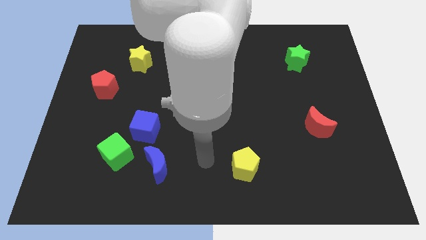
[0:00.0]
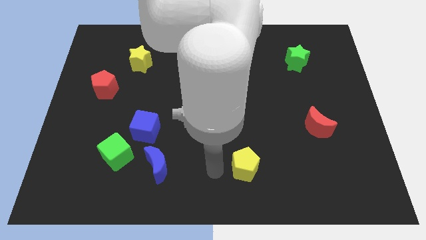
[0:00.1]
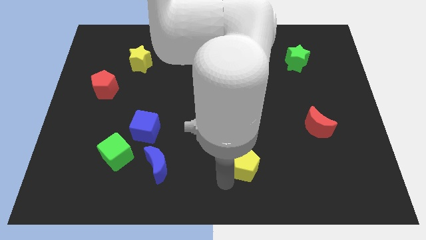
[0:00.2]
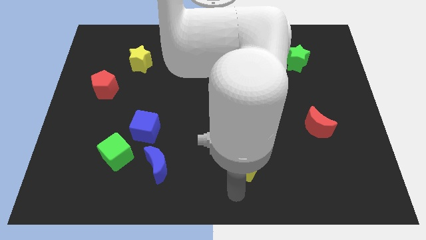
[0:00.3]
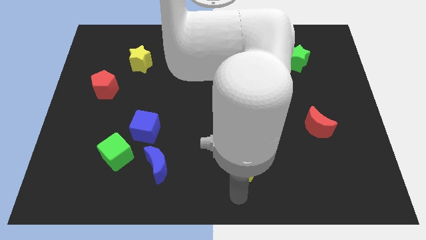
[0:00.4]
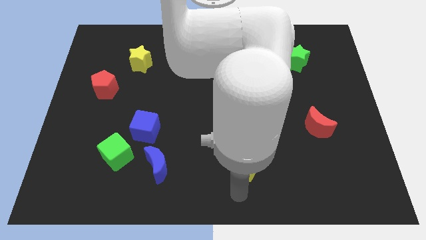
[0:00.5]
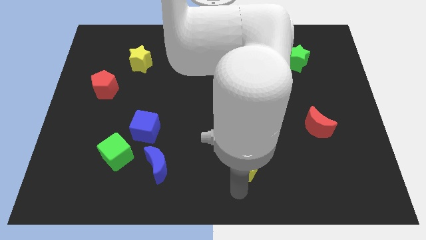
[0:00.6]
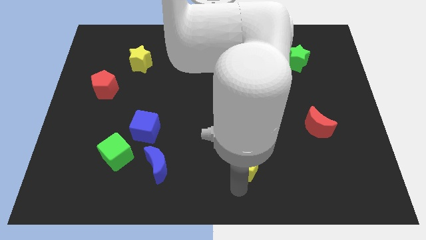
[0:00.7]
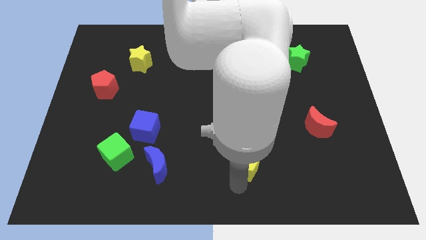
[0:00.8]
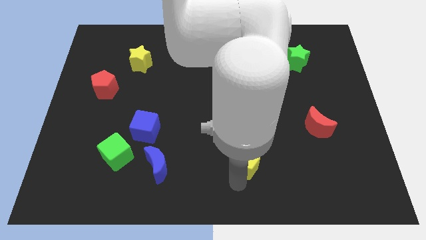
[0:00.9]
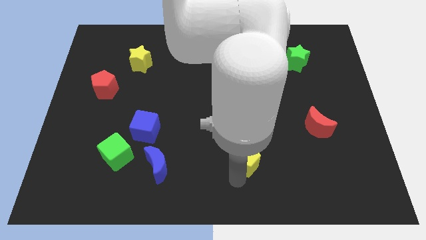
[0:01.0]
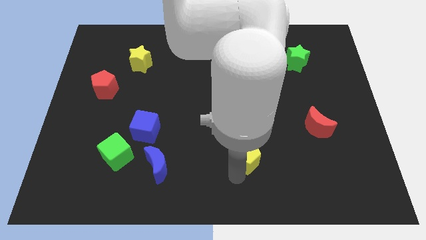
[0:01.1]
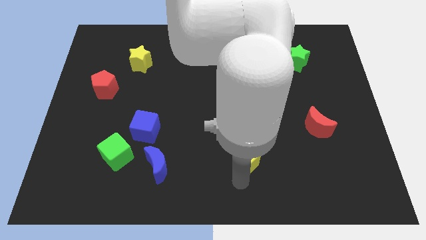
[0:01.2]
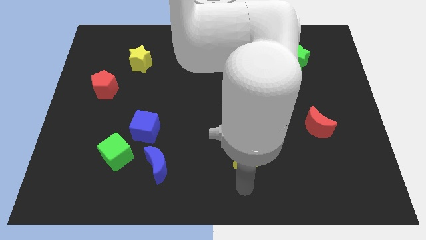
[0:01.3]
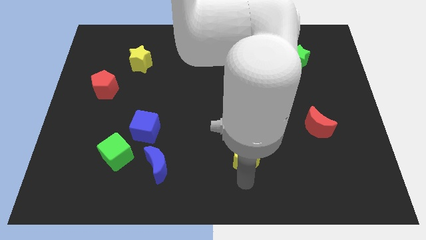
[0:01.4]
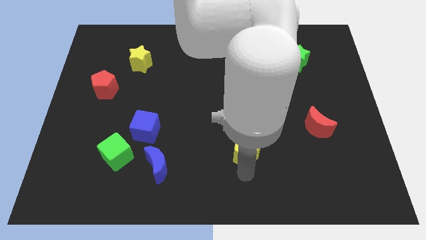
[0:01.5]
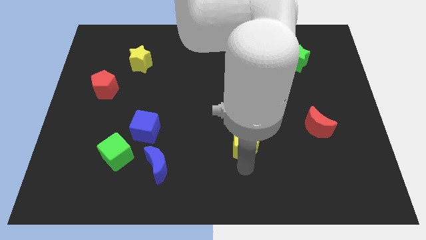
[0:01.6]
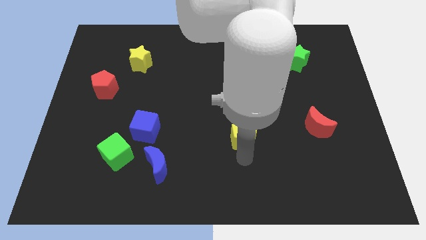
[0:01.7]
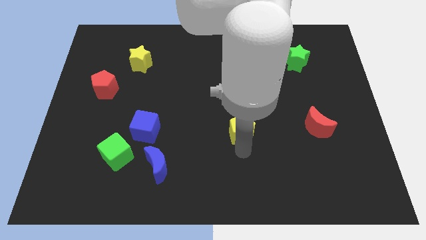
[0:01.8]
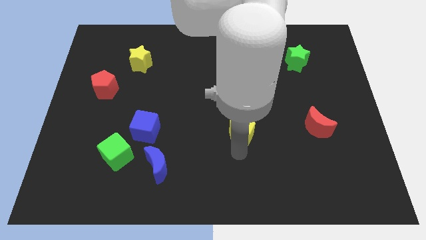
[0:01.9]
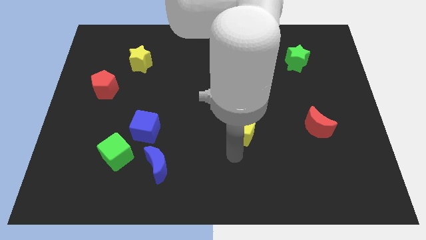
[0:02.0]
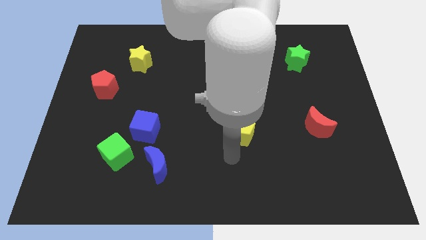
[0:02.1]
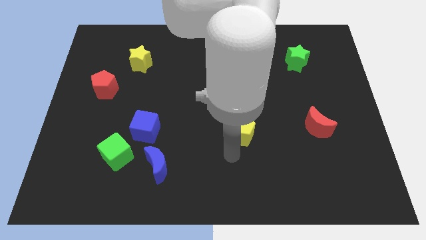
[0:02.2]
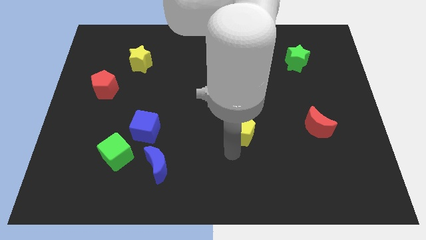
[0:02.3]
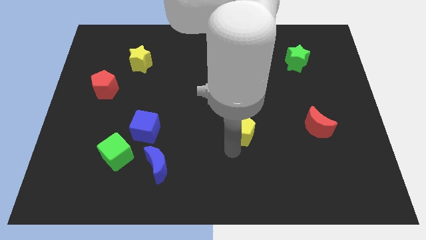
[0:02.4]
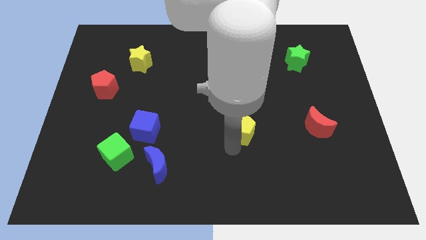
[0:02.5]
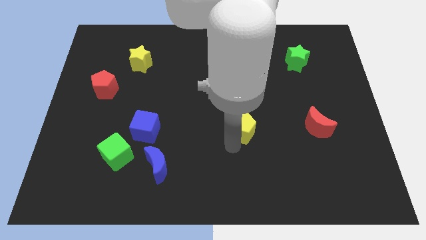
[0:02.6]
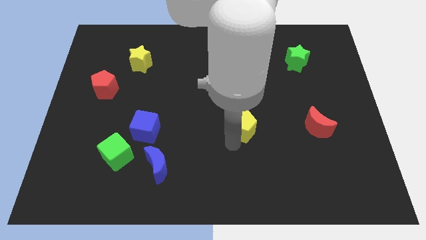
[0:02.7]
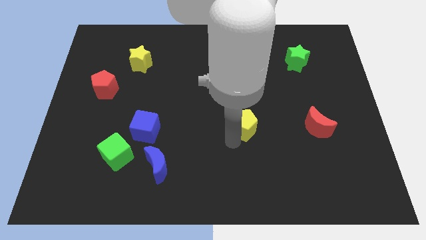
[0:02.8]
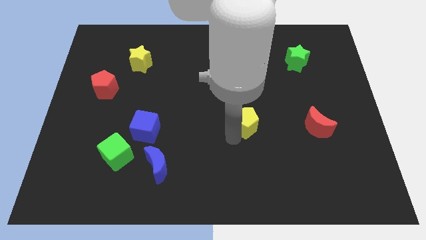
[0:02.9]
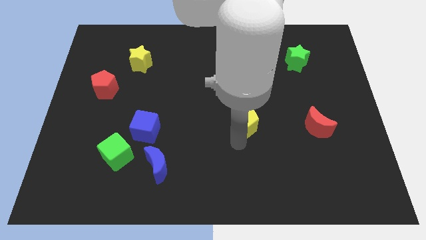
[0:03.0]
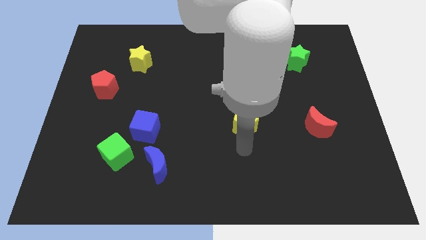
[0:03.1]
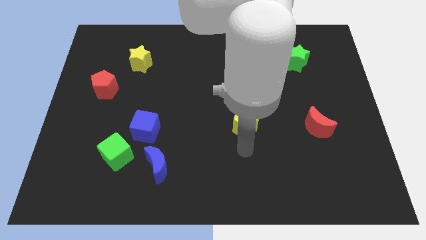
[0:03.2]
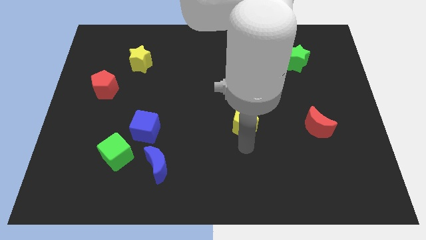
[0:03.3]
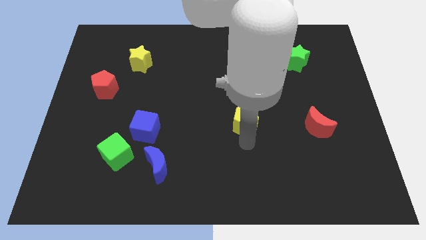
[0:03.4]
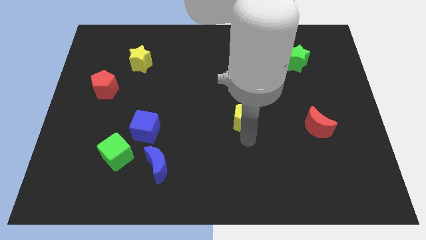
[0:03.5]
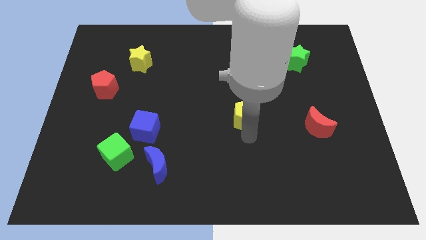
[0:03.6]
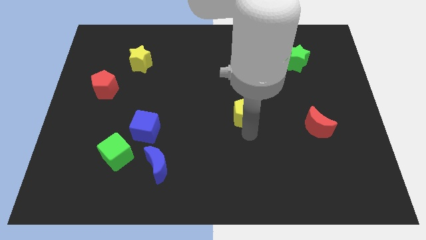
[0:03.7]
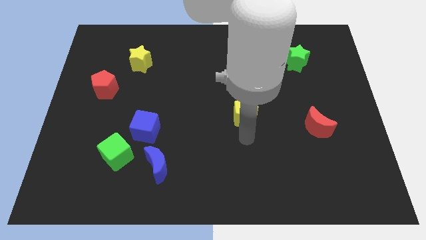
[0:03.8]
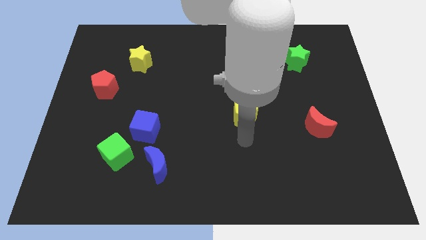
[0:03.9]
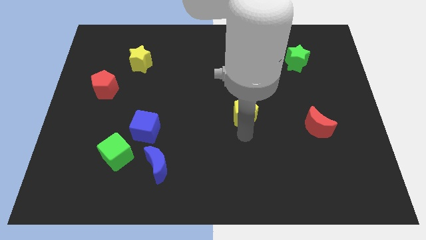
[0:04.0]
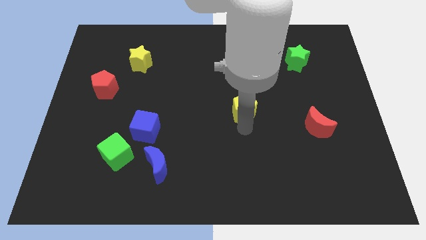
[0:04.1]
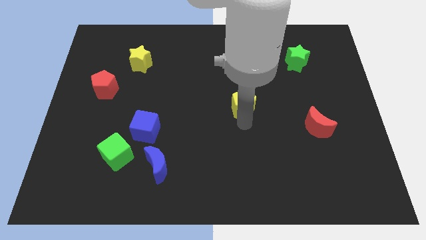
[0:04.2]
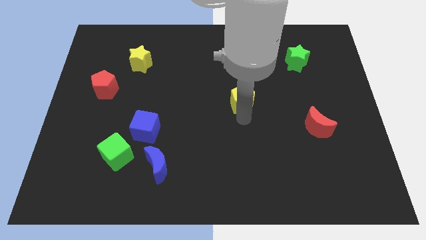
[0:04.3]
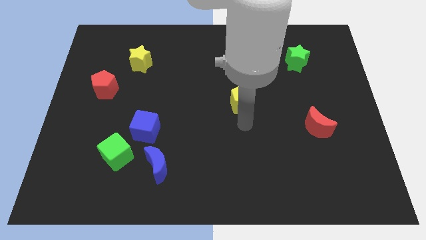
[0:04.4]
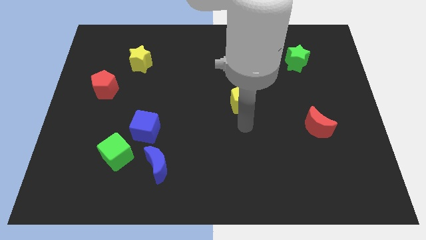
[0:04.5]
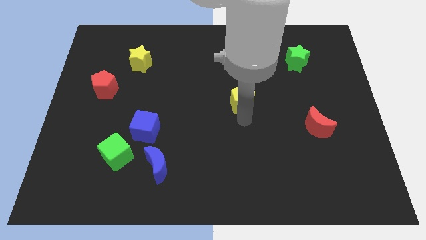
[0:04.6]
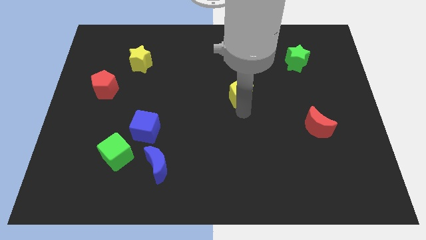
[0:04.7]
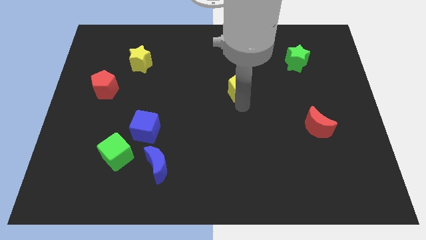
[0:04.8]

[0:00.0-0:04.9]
push the yellow pentagon upwards

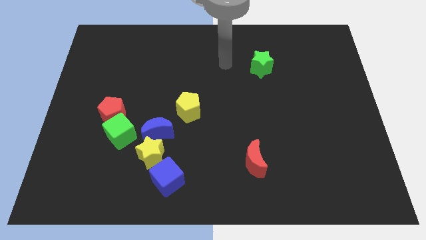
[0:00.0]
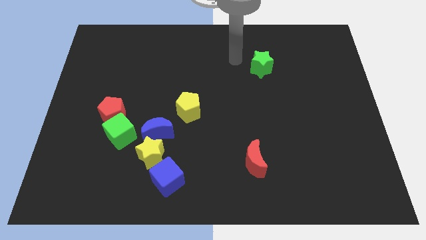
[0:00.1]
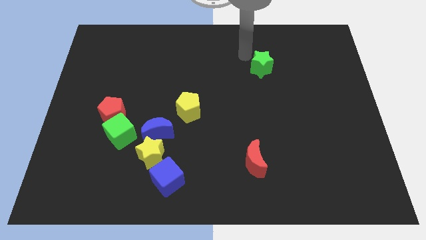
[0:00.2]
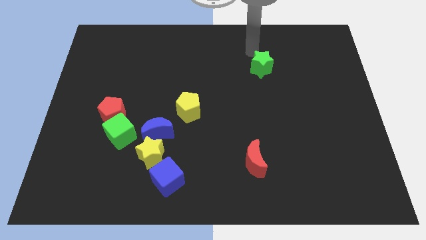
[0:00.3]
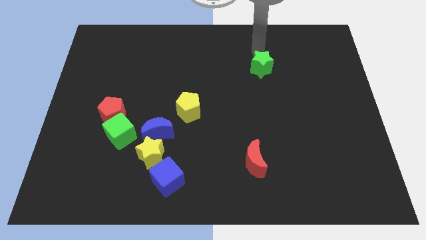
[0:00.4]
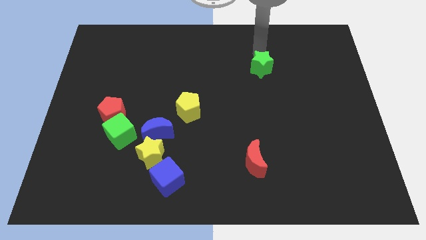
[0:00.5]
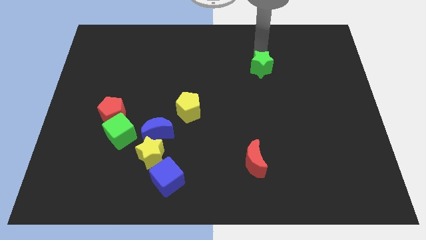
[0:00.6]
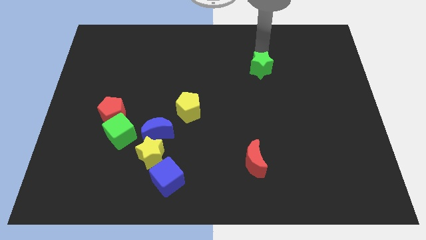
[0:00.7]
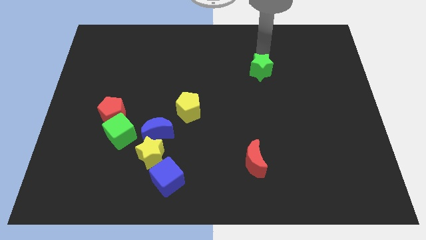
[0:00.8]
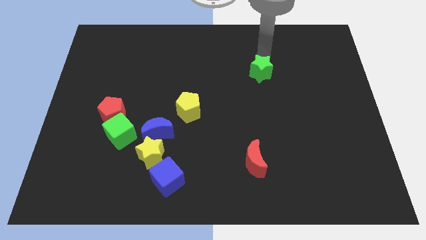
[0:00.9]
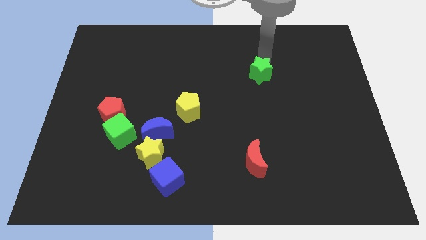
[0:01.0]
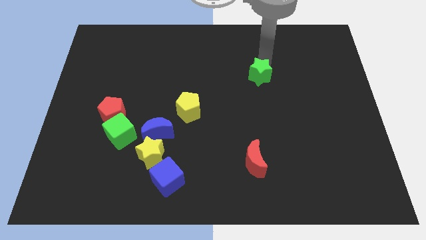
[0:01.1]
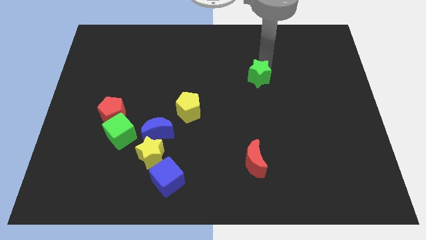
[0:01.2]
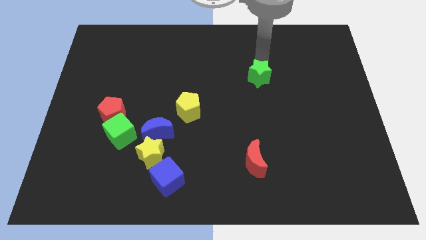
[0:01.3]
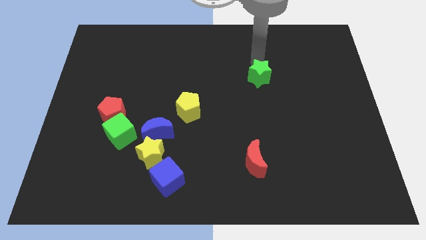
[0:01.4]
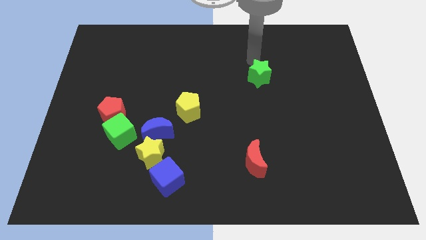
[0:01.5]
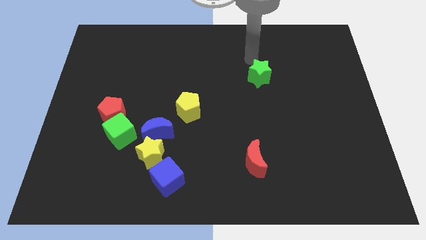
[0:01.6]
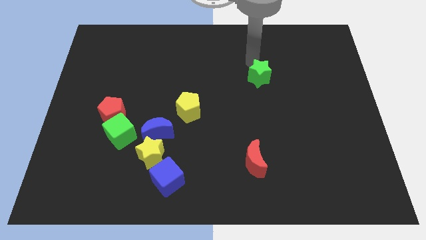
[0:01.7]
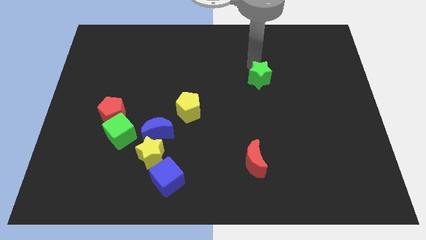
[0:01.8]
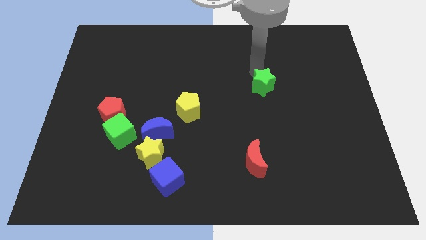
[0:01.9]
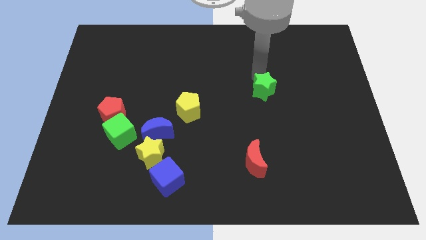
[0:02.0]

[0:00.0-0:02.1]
push the green star downwards a little

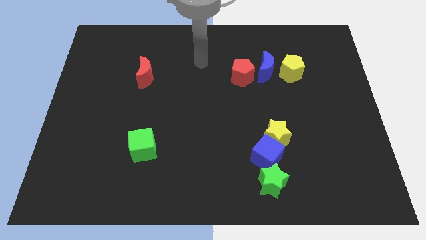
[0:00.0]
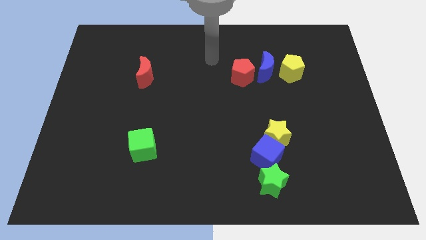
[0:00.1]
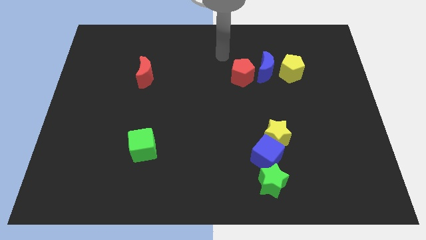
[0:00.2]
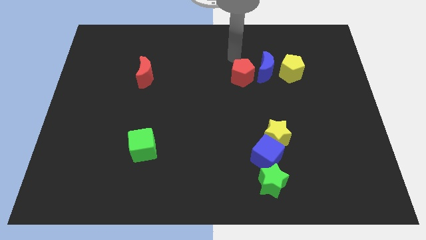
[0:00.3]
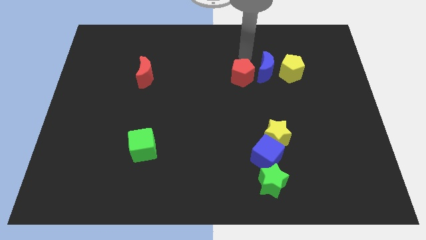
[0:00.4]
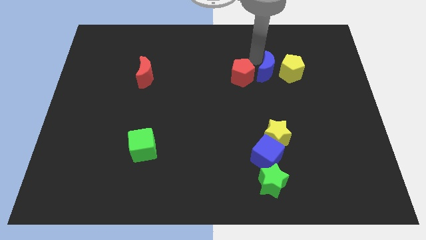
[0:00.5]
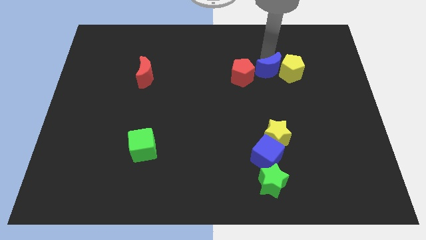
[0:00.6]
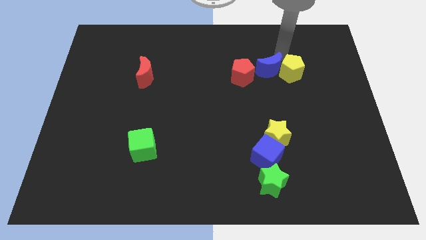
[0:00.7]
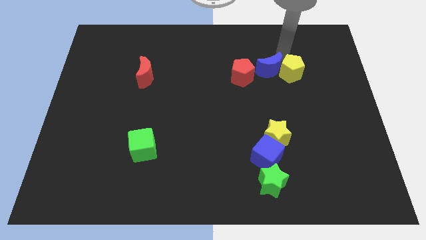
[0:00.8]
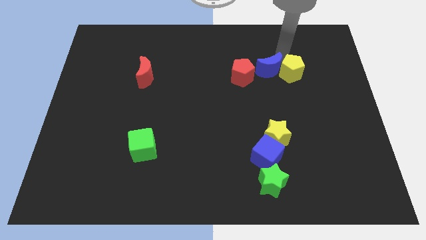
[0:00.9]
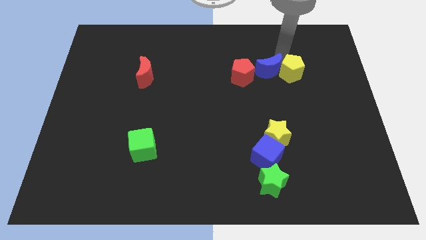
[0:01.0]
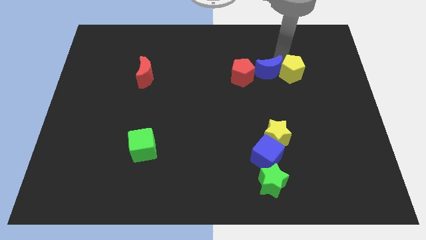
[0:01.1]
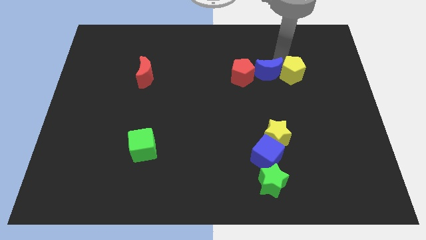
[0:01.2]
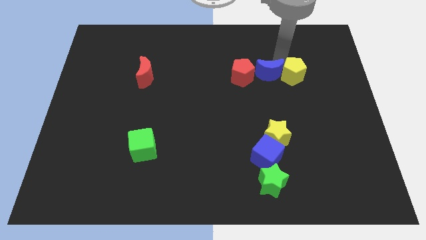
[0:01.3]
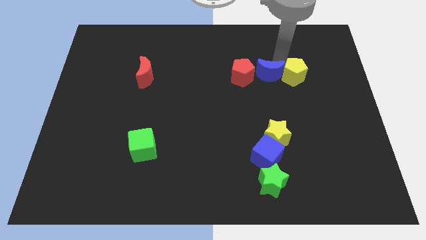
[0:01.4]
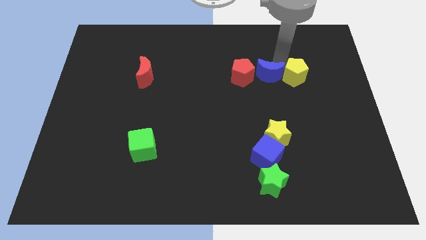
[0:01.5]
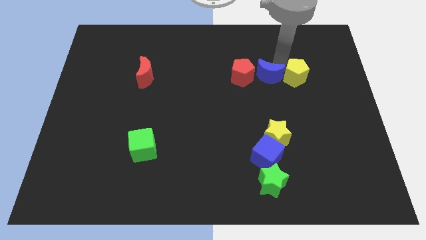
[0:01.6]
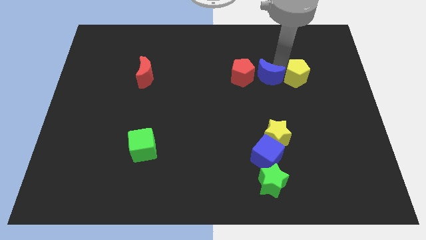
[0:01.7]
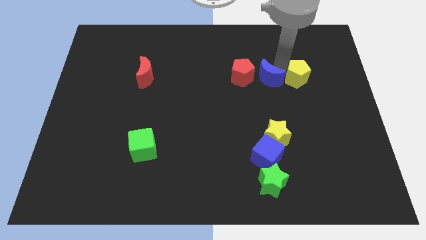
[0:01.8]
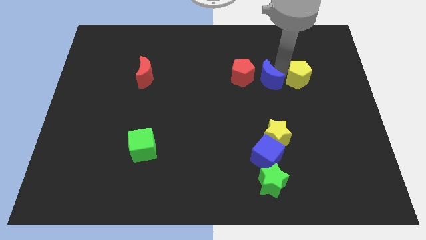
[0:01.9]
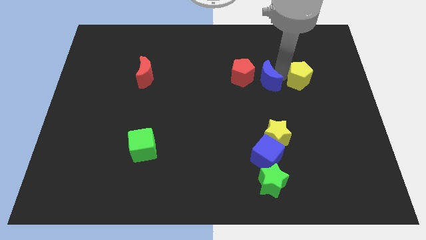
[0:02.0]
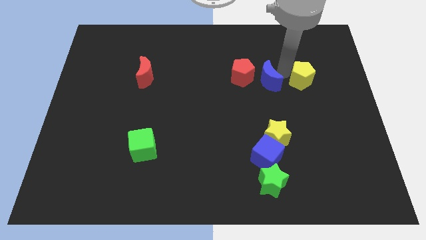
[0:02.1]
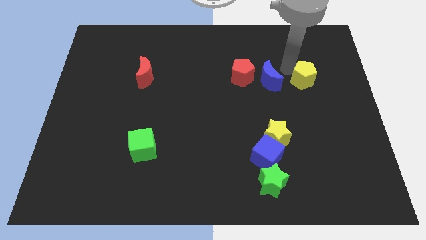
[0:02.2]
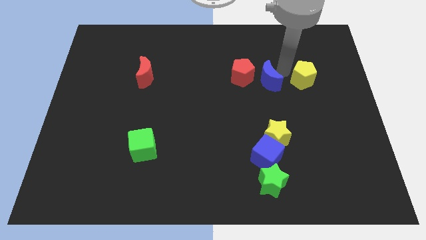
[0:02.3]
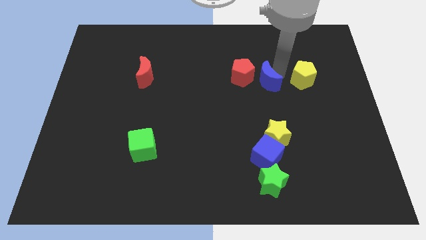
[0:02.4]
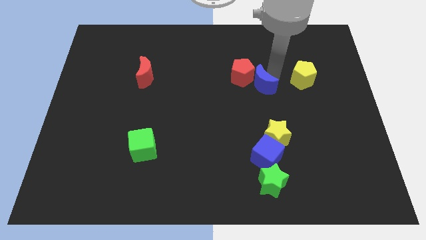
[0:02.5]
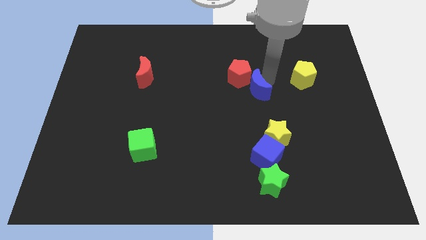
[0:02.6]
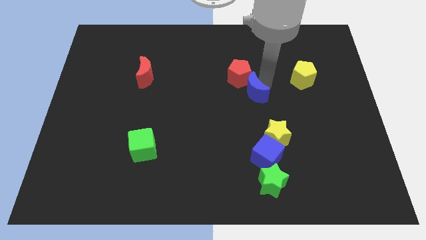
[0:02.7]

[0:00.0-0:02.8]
slightly slide the blue moon diagonally down and to the left
